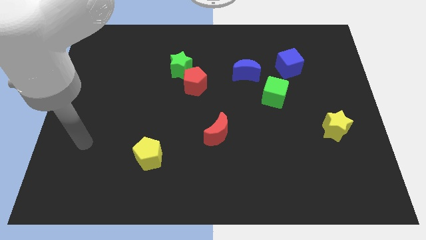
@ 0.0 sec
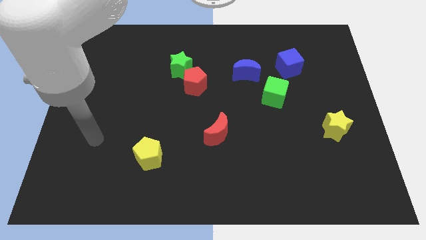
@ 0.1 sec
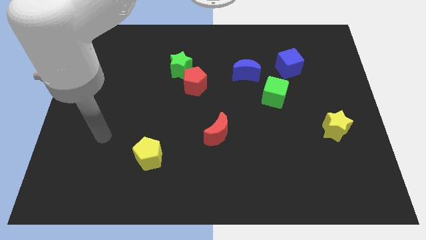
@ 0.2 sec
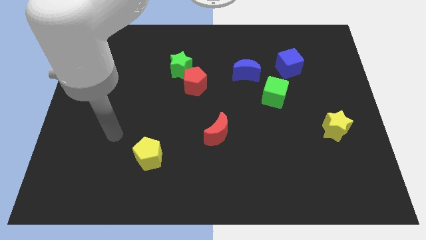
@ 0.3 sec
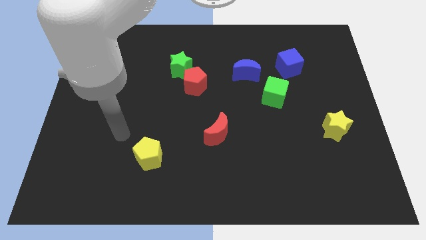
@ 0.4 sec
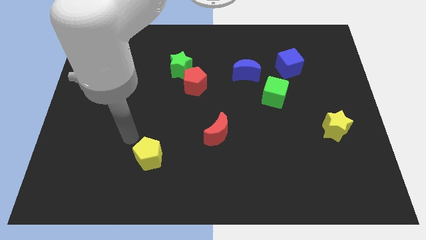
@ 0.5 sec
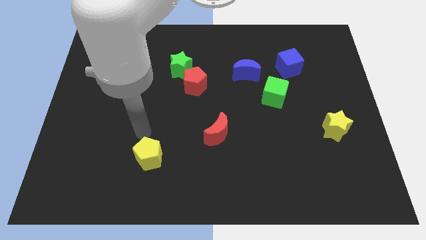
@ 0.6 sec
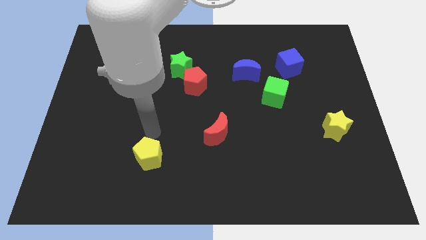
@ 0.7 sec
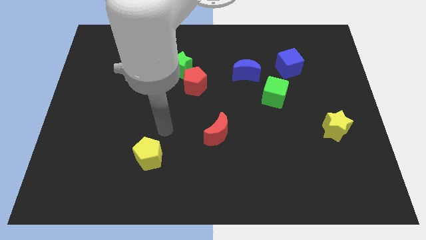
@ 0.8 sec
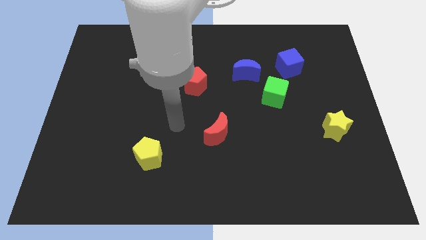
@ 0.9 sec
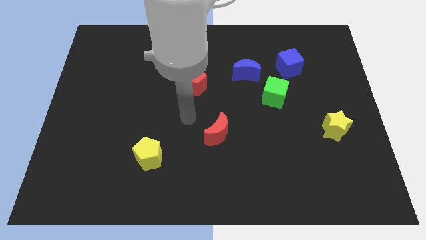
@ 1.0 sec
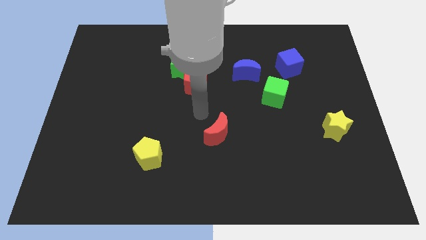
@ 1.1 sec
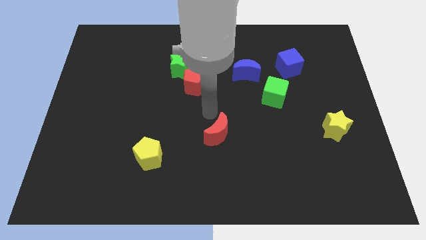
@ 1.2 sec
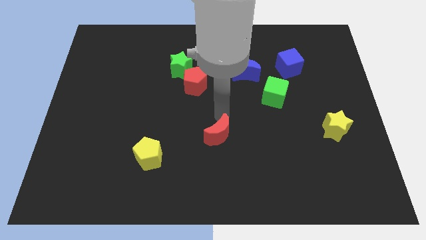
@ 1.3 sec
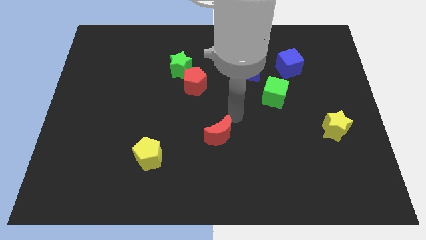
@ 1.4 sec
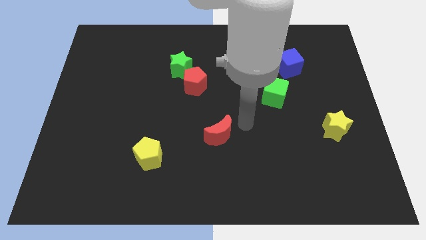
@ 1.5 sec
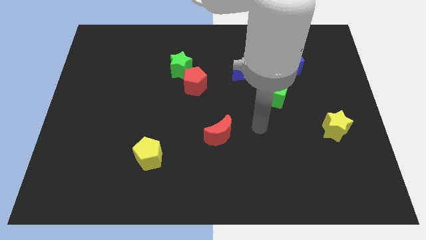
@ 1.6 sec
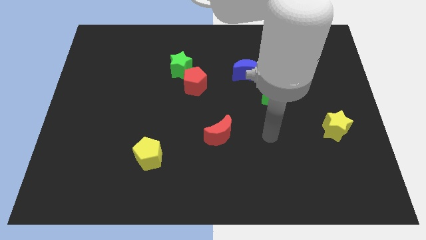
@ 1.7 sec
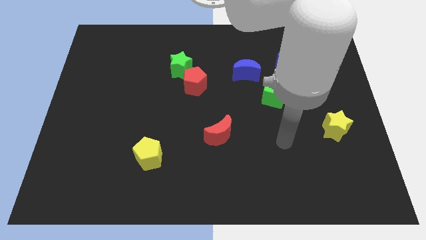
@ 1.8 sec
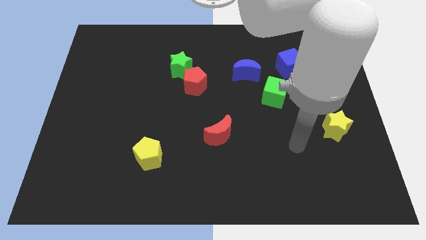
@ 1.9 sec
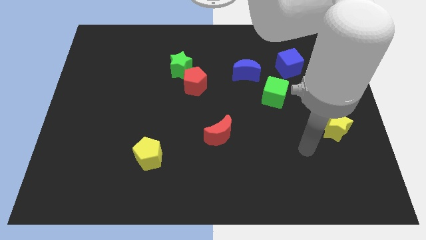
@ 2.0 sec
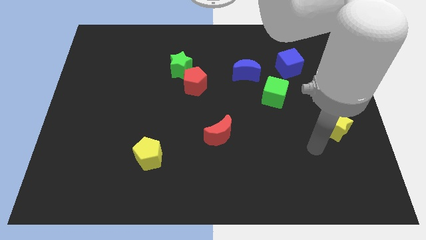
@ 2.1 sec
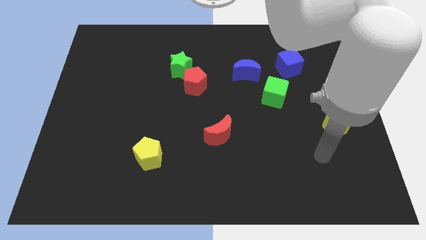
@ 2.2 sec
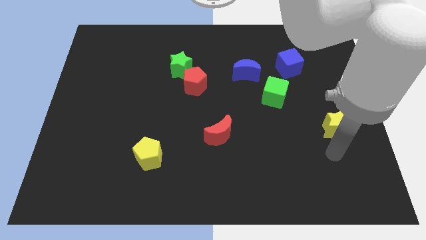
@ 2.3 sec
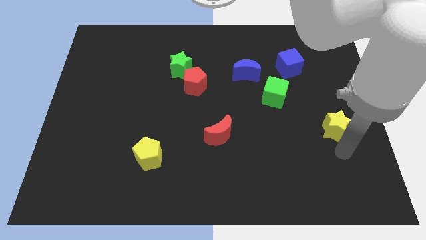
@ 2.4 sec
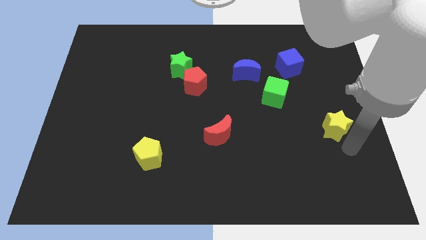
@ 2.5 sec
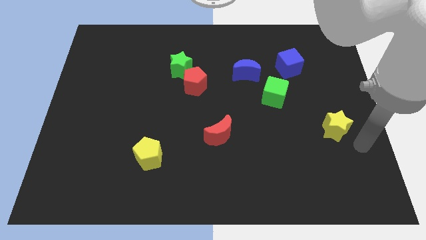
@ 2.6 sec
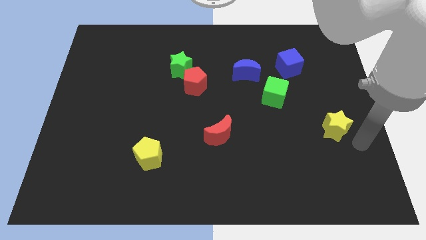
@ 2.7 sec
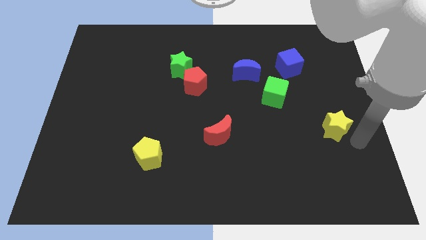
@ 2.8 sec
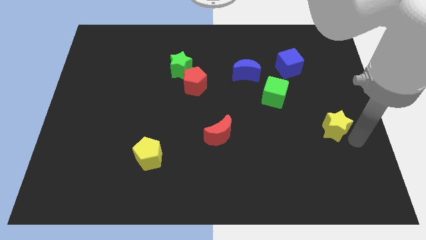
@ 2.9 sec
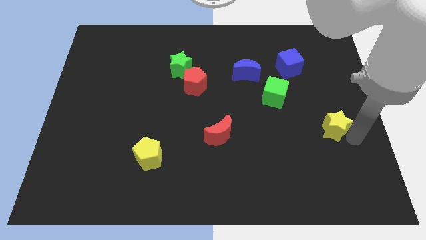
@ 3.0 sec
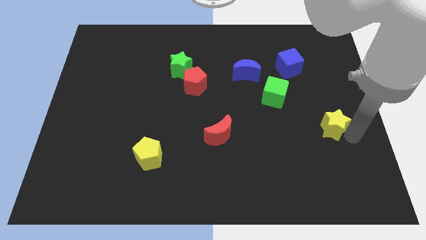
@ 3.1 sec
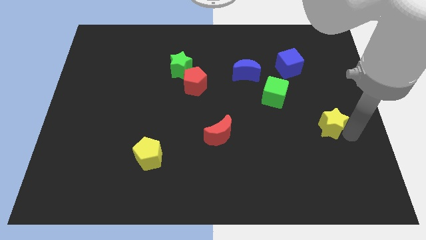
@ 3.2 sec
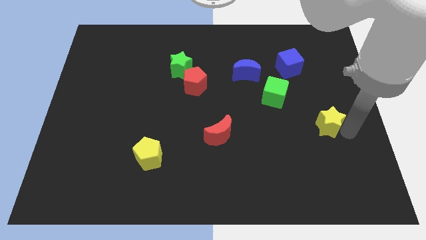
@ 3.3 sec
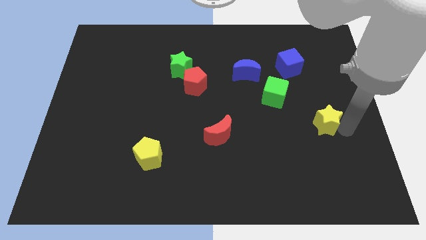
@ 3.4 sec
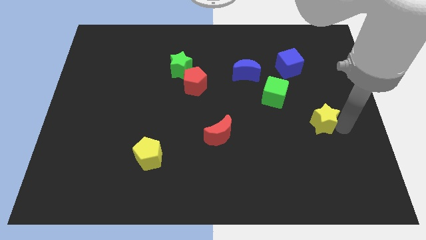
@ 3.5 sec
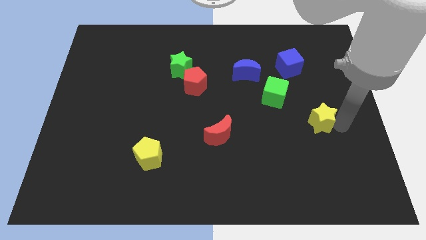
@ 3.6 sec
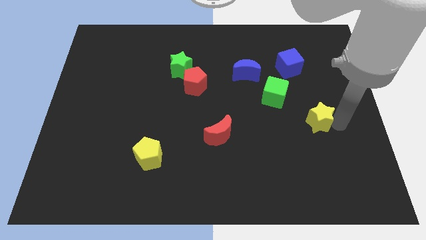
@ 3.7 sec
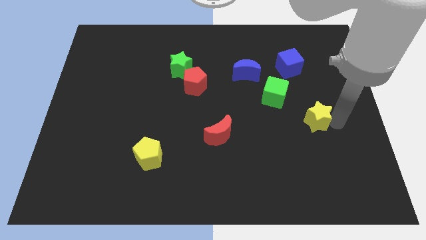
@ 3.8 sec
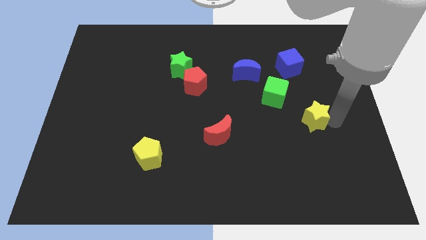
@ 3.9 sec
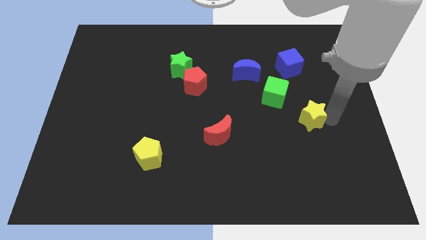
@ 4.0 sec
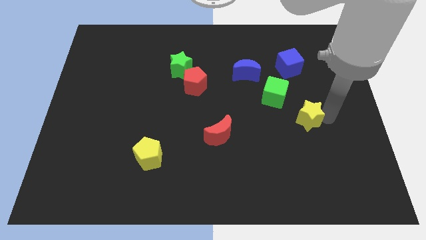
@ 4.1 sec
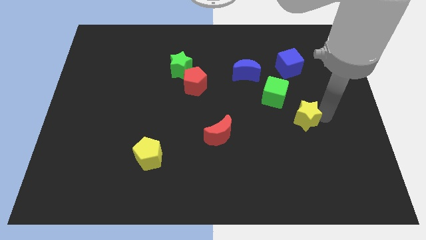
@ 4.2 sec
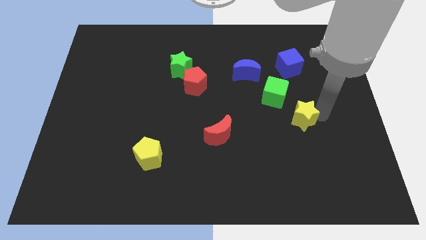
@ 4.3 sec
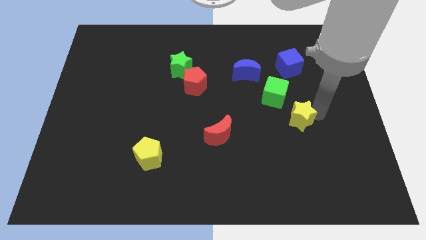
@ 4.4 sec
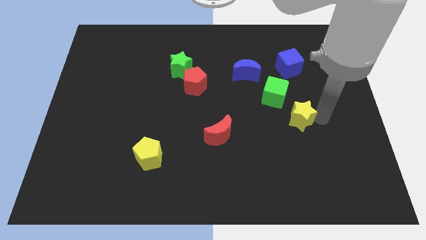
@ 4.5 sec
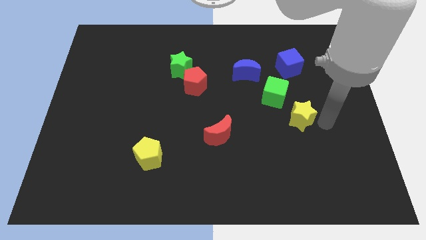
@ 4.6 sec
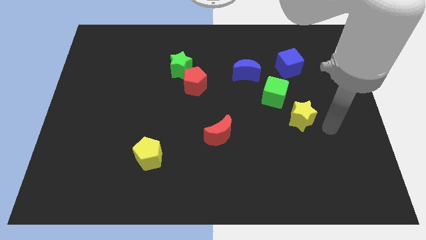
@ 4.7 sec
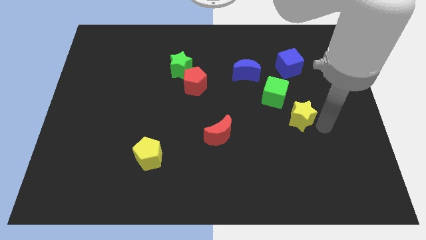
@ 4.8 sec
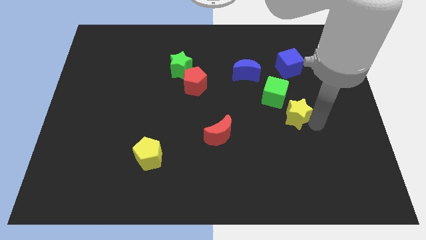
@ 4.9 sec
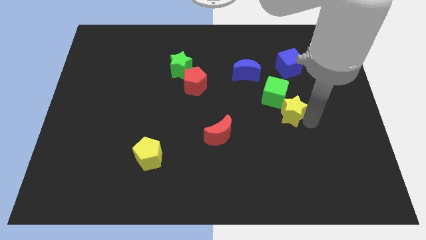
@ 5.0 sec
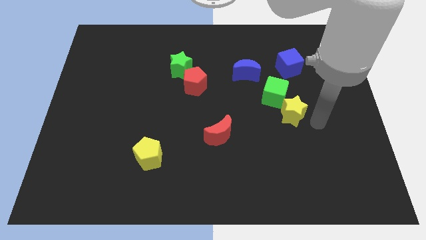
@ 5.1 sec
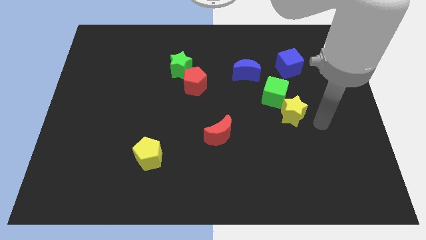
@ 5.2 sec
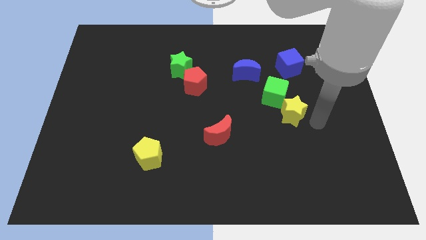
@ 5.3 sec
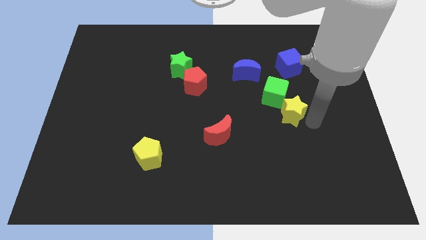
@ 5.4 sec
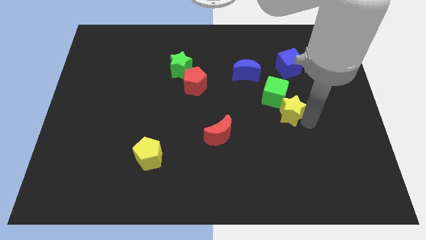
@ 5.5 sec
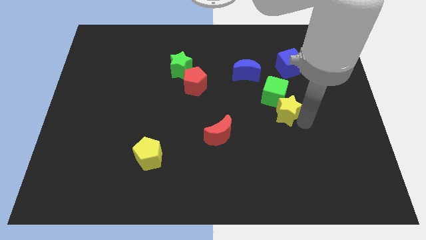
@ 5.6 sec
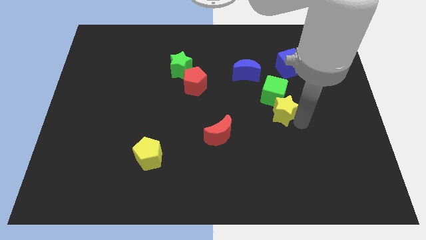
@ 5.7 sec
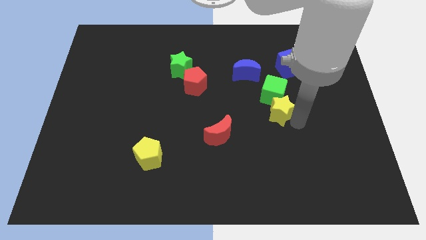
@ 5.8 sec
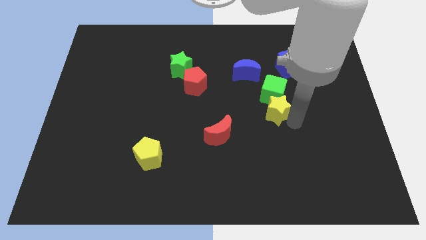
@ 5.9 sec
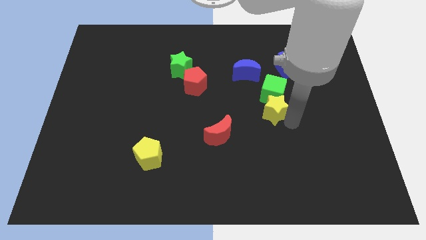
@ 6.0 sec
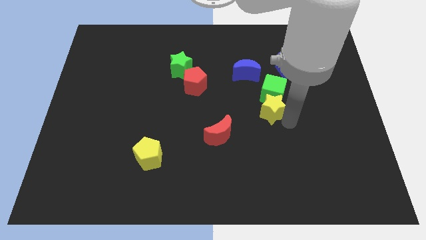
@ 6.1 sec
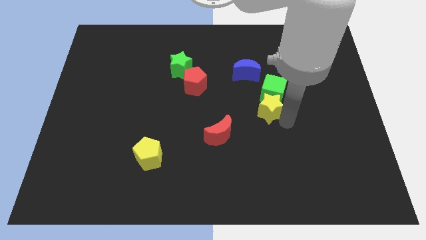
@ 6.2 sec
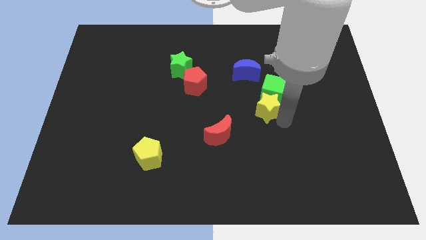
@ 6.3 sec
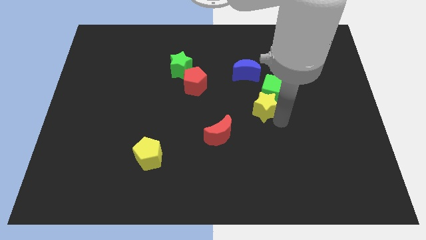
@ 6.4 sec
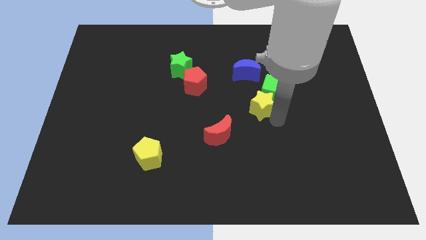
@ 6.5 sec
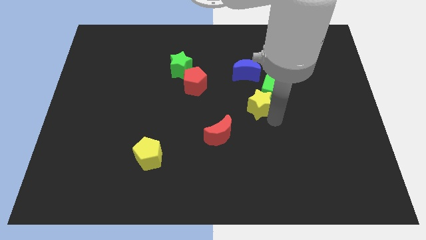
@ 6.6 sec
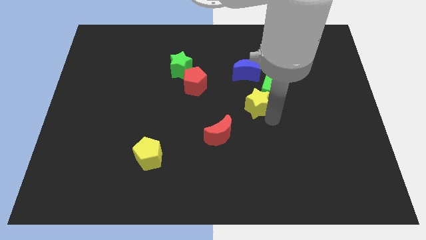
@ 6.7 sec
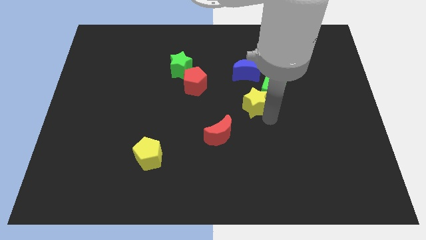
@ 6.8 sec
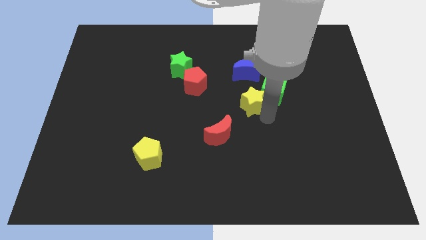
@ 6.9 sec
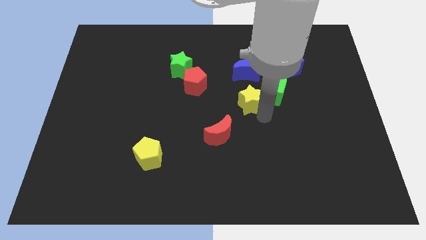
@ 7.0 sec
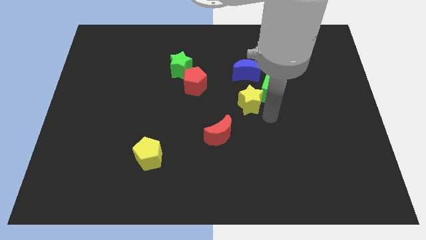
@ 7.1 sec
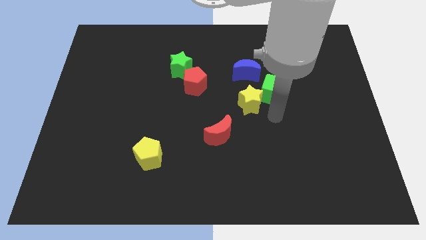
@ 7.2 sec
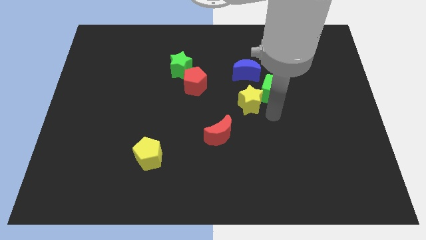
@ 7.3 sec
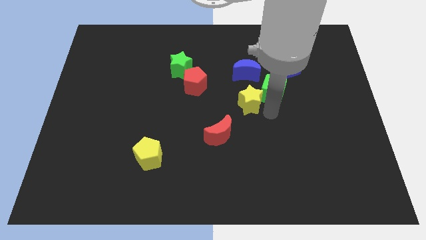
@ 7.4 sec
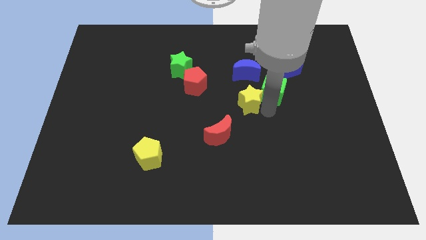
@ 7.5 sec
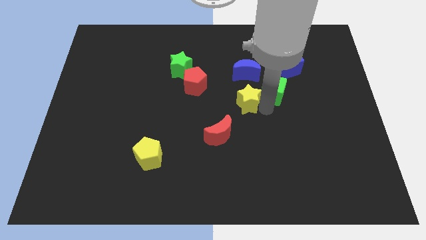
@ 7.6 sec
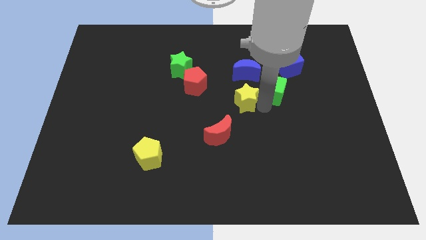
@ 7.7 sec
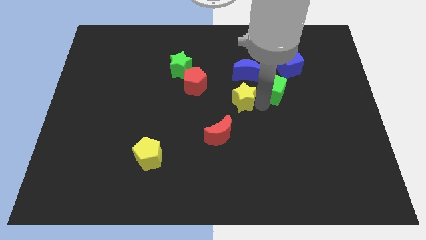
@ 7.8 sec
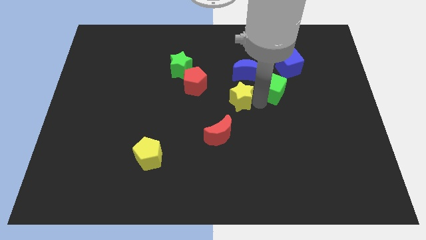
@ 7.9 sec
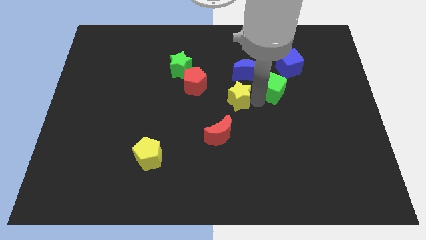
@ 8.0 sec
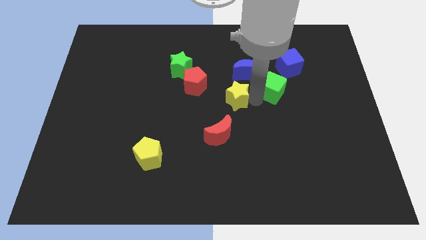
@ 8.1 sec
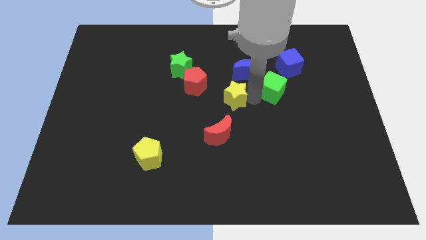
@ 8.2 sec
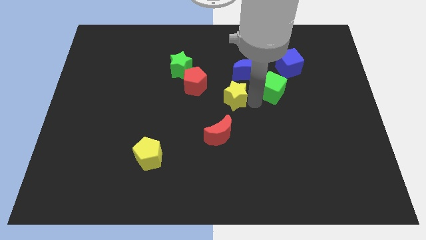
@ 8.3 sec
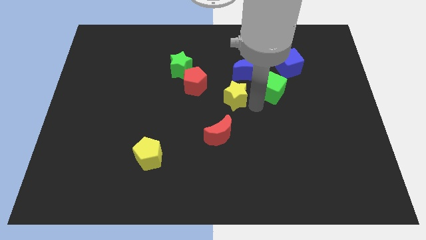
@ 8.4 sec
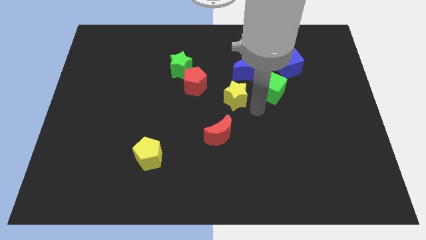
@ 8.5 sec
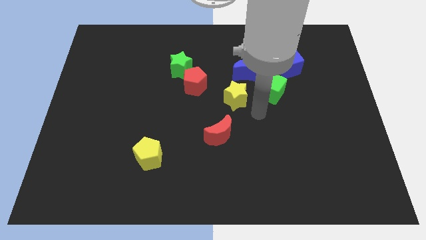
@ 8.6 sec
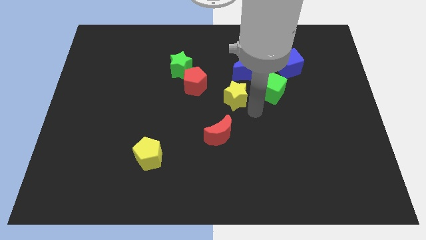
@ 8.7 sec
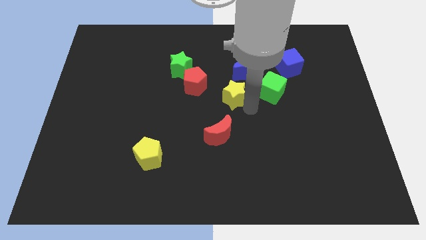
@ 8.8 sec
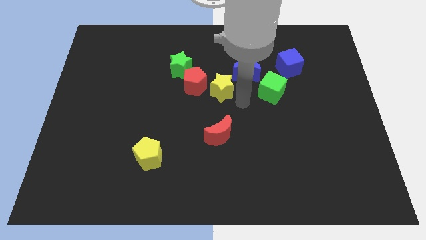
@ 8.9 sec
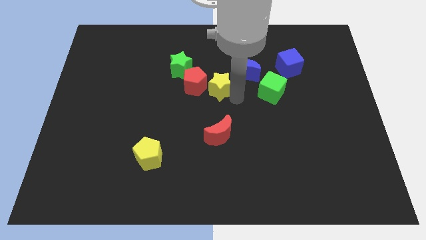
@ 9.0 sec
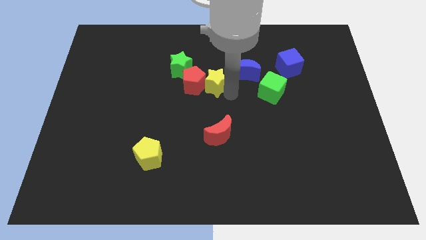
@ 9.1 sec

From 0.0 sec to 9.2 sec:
put the yellow star next to the red pentagon
